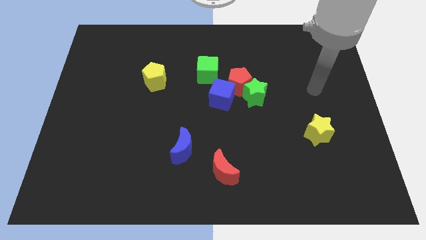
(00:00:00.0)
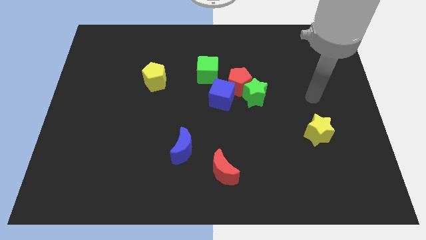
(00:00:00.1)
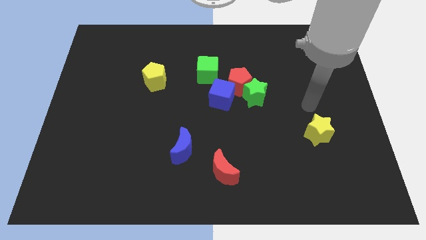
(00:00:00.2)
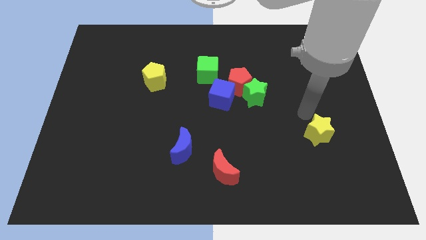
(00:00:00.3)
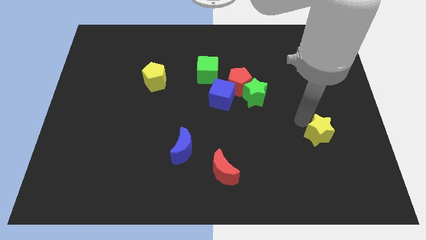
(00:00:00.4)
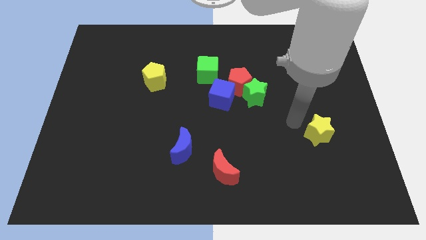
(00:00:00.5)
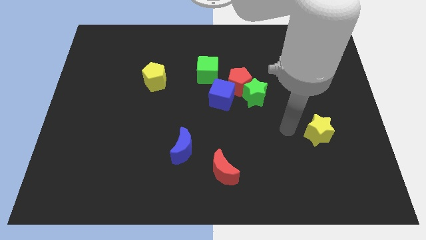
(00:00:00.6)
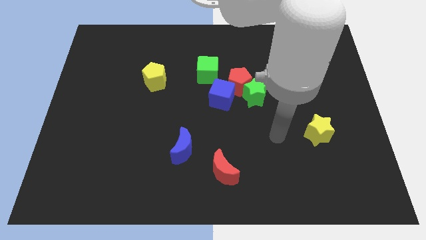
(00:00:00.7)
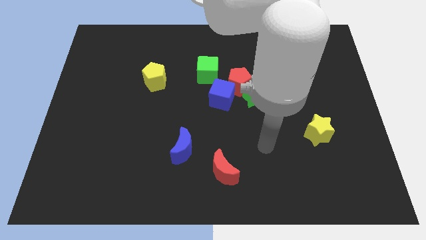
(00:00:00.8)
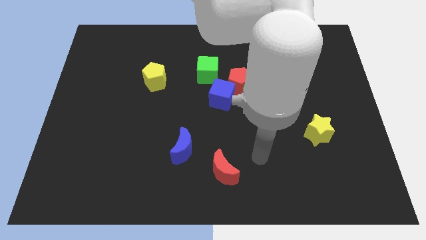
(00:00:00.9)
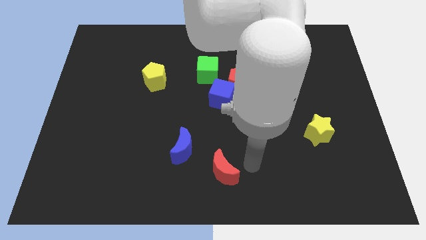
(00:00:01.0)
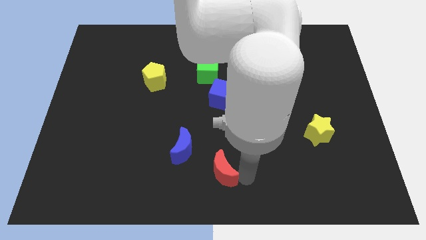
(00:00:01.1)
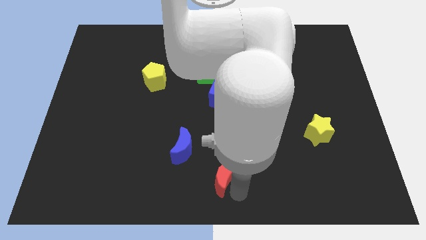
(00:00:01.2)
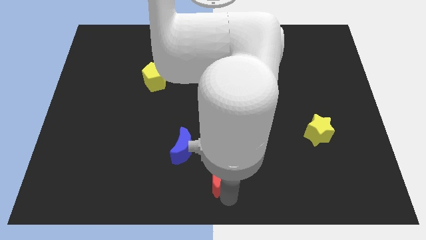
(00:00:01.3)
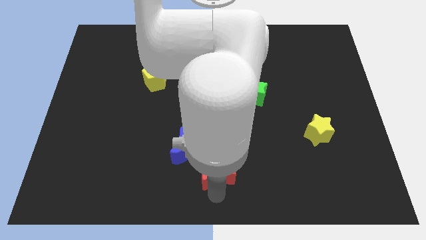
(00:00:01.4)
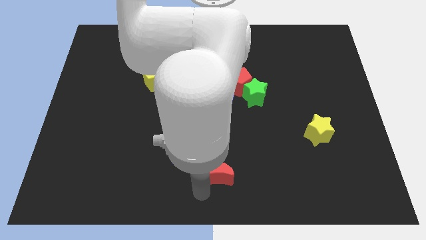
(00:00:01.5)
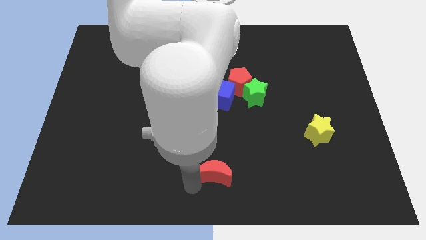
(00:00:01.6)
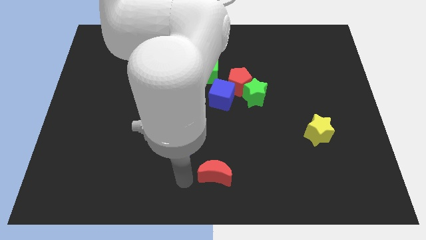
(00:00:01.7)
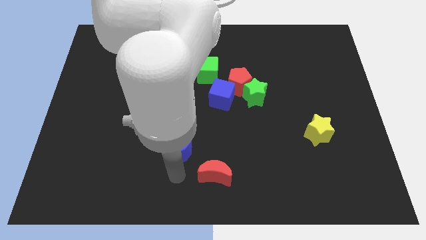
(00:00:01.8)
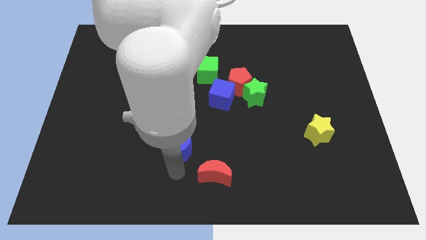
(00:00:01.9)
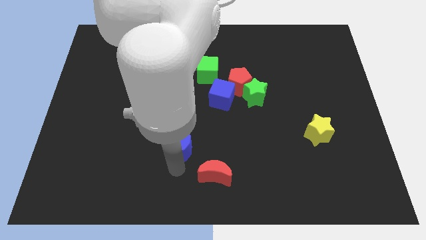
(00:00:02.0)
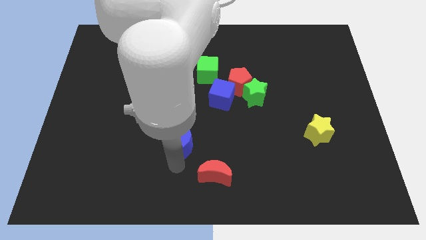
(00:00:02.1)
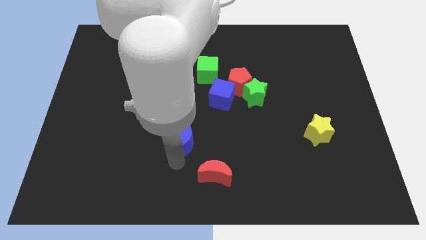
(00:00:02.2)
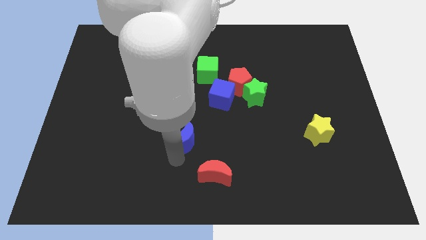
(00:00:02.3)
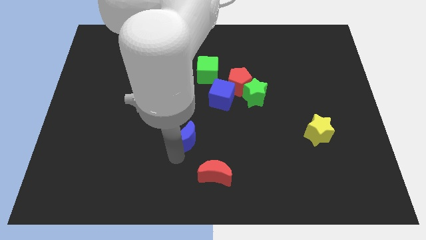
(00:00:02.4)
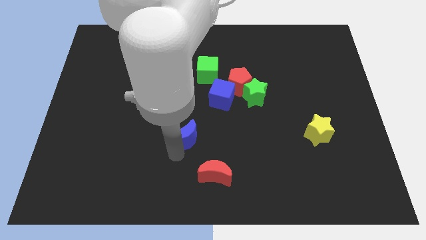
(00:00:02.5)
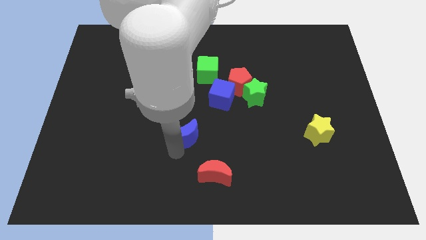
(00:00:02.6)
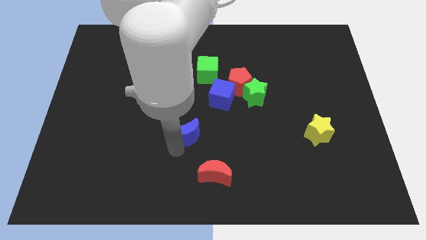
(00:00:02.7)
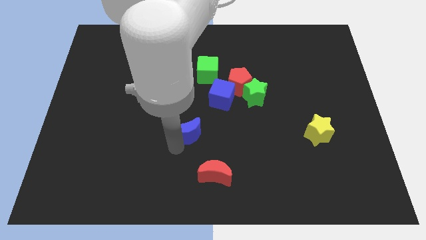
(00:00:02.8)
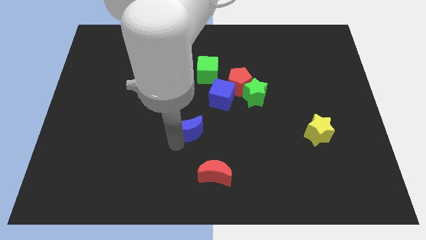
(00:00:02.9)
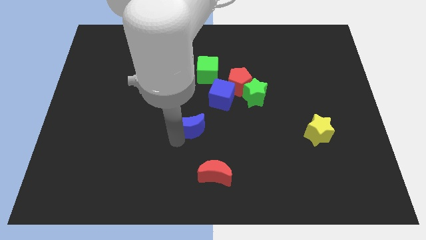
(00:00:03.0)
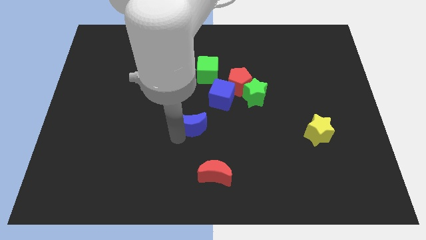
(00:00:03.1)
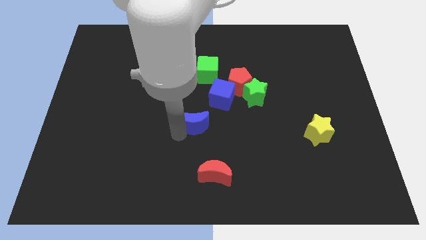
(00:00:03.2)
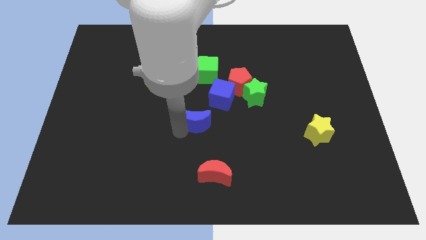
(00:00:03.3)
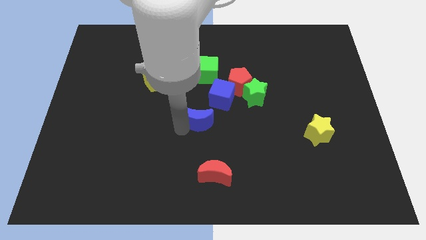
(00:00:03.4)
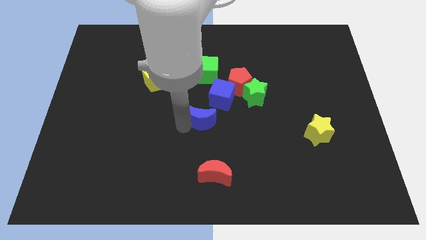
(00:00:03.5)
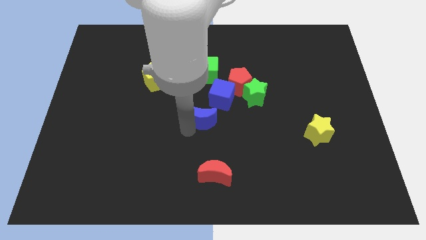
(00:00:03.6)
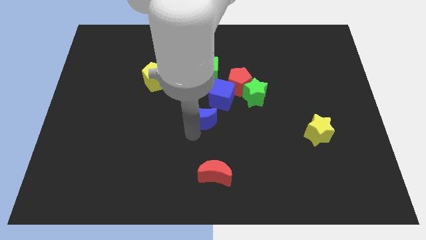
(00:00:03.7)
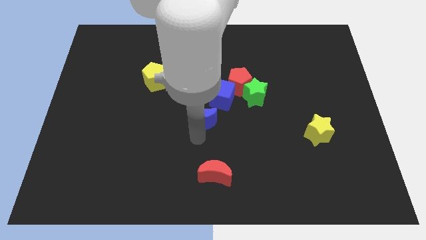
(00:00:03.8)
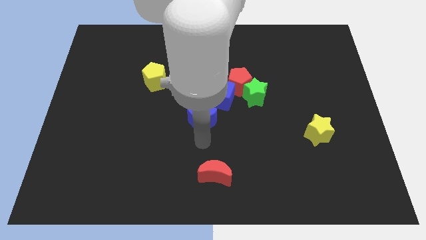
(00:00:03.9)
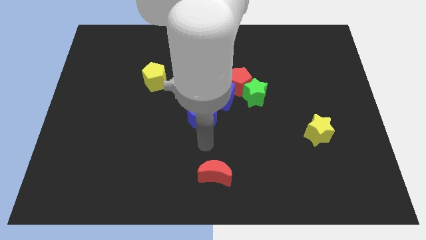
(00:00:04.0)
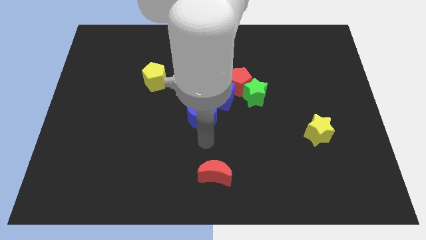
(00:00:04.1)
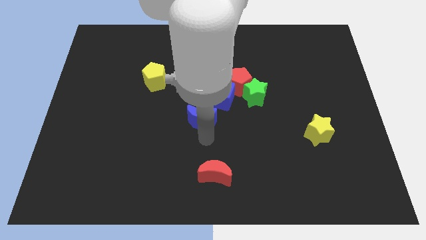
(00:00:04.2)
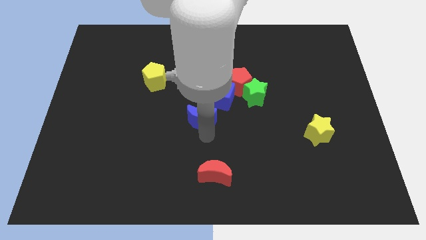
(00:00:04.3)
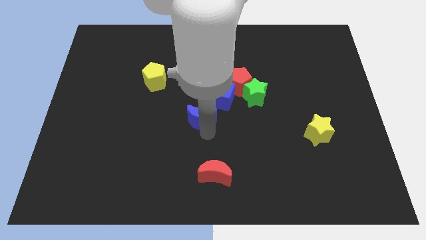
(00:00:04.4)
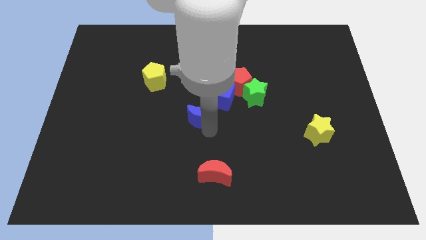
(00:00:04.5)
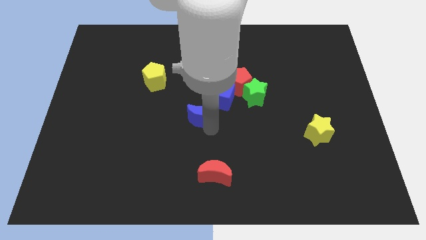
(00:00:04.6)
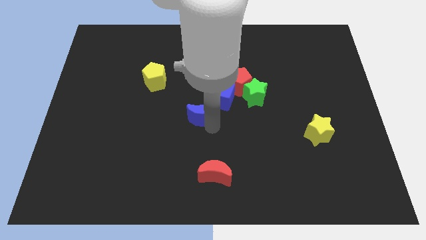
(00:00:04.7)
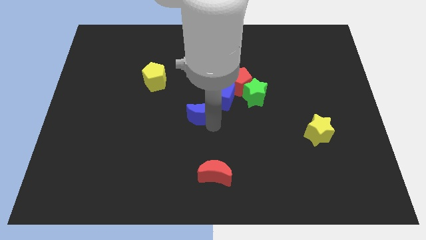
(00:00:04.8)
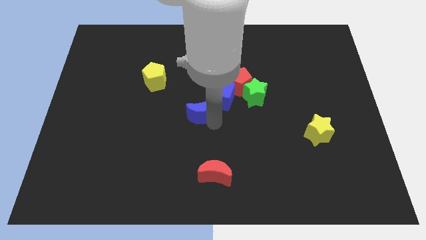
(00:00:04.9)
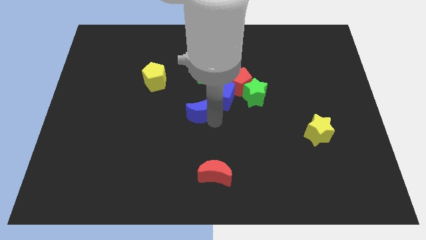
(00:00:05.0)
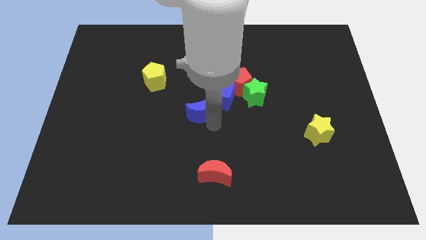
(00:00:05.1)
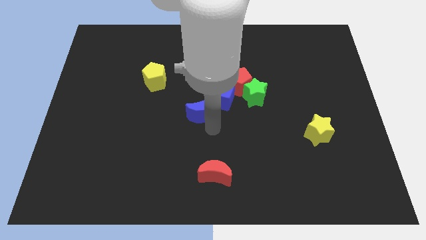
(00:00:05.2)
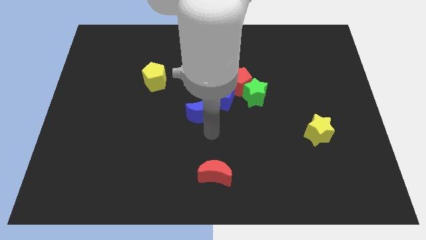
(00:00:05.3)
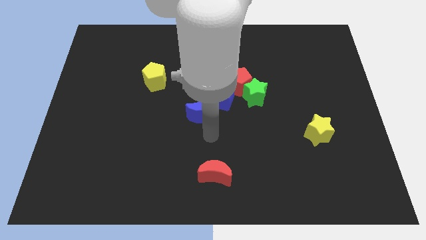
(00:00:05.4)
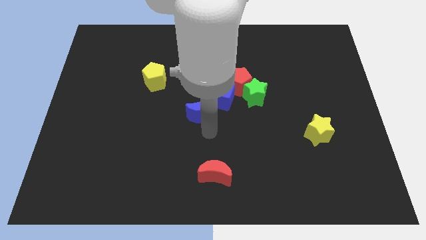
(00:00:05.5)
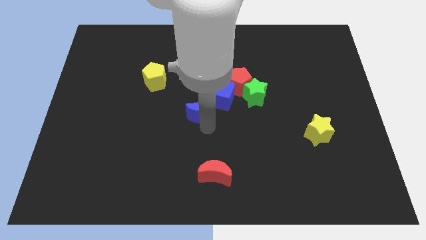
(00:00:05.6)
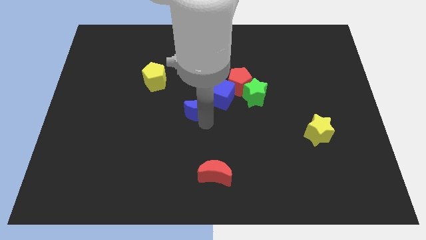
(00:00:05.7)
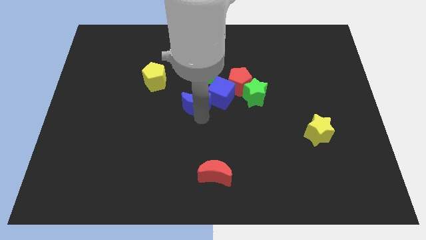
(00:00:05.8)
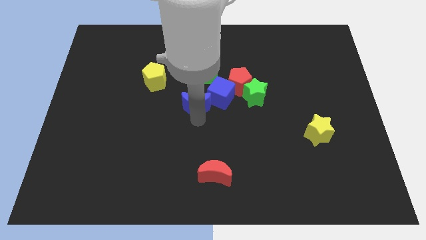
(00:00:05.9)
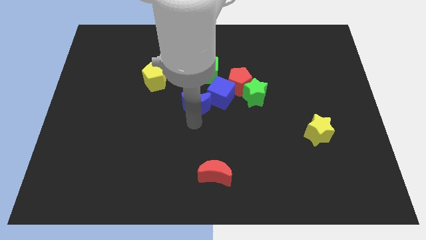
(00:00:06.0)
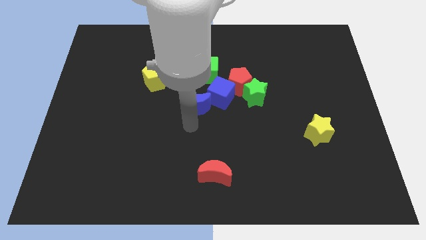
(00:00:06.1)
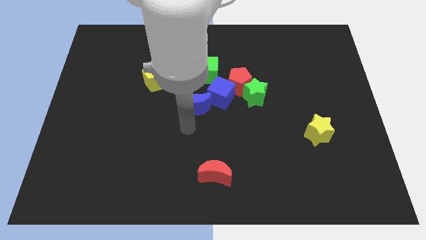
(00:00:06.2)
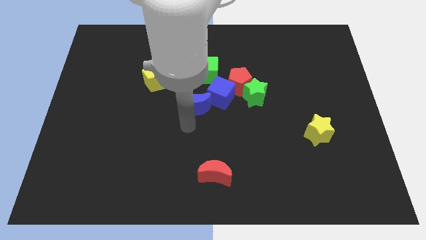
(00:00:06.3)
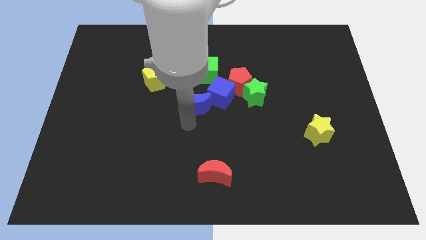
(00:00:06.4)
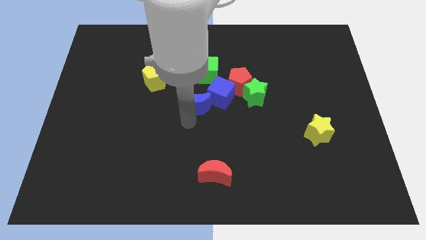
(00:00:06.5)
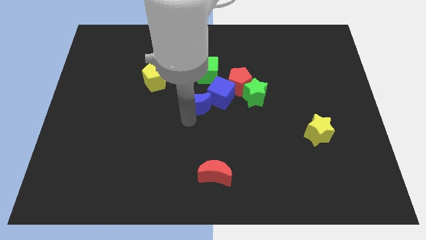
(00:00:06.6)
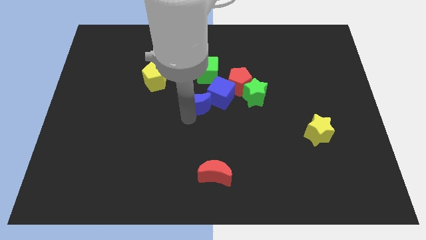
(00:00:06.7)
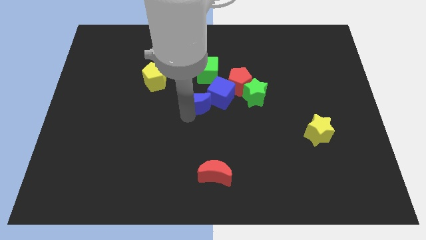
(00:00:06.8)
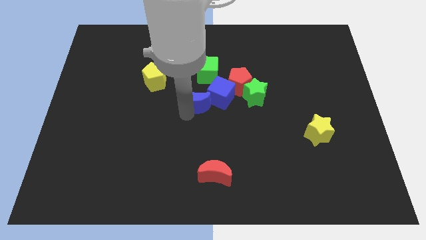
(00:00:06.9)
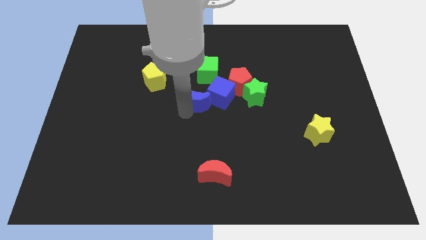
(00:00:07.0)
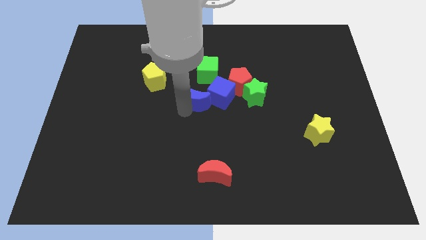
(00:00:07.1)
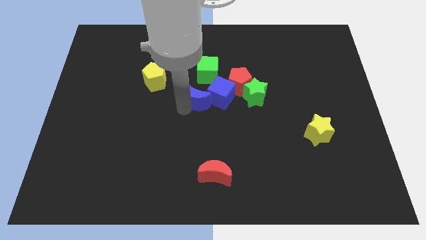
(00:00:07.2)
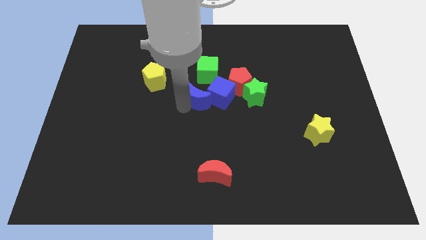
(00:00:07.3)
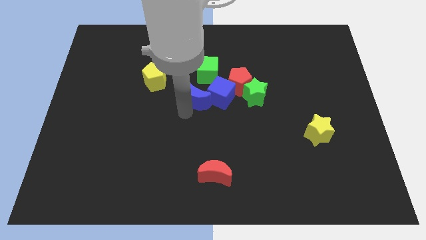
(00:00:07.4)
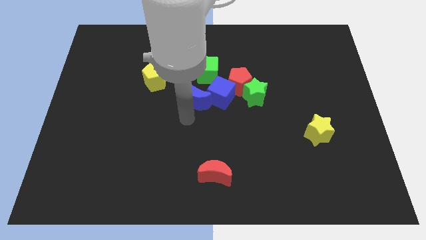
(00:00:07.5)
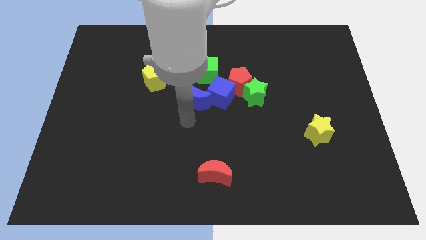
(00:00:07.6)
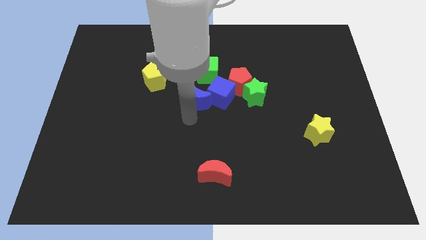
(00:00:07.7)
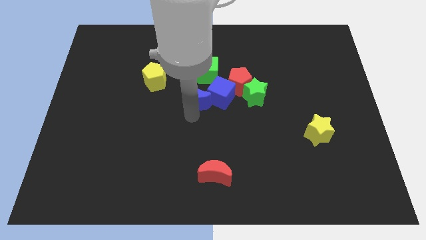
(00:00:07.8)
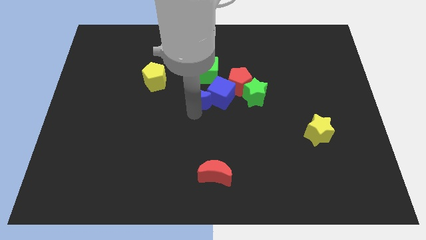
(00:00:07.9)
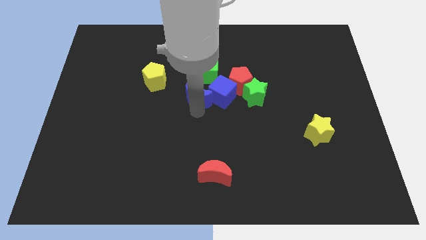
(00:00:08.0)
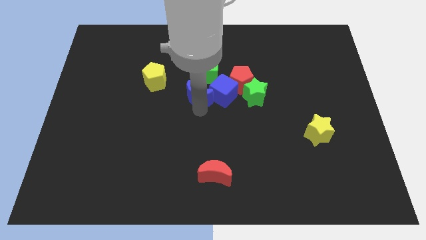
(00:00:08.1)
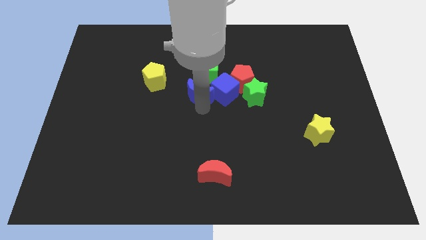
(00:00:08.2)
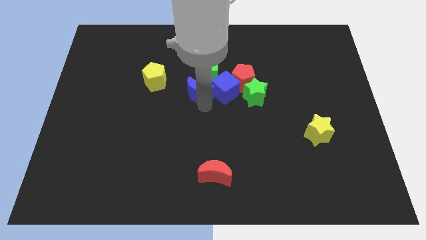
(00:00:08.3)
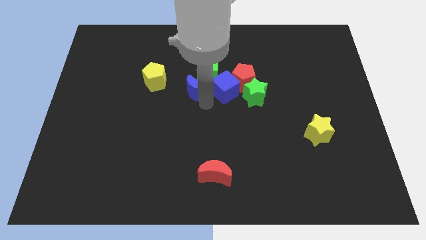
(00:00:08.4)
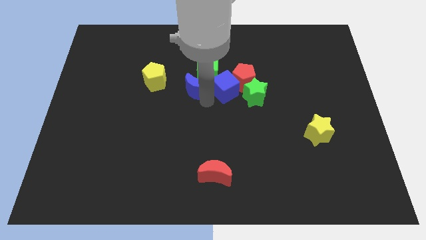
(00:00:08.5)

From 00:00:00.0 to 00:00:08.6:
slide the blue moon next to the green cube
